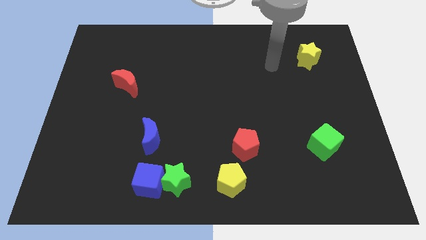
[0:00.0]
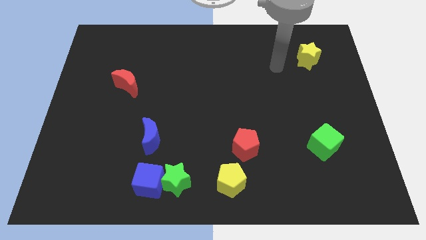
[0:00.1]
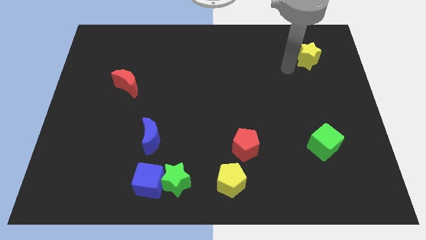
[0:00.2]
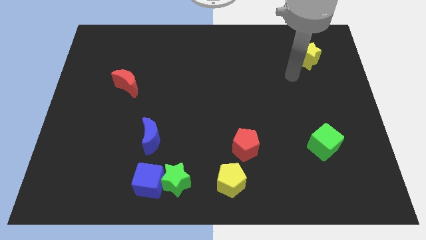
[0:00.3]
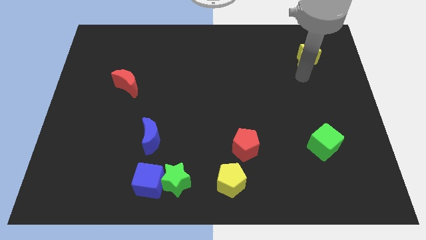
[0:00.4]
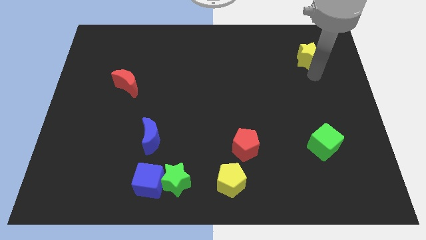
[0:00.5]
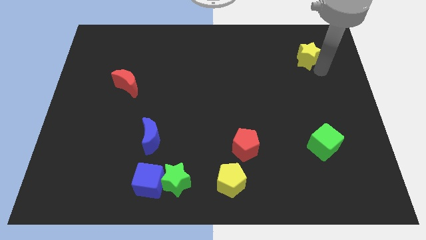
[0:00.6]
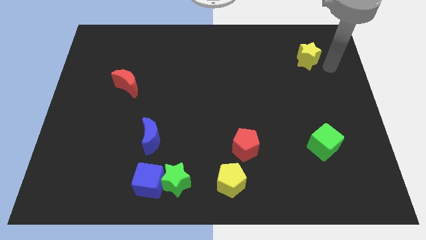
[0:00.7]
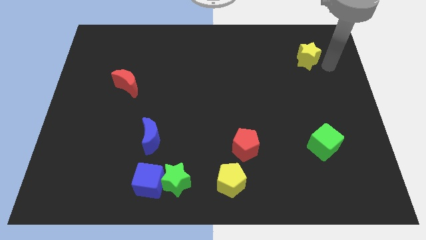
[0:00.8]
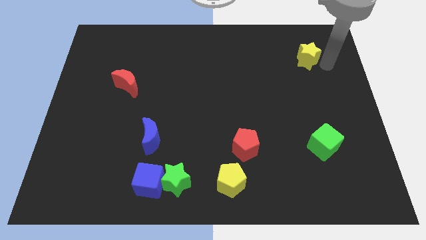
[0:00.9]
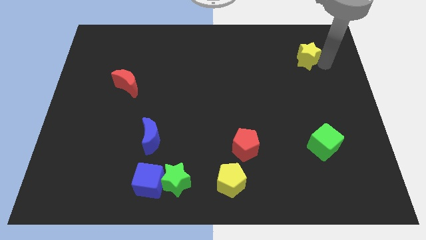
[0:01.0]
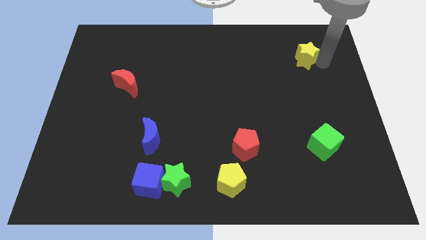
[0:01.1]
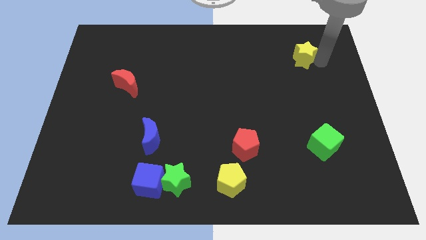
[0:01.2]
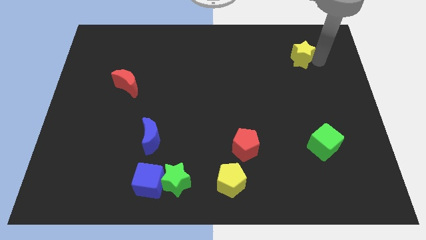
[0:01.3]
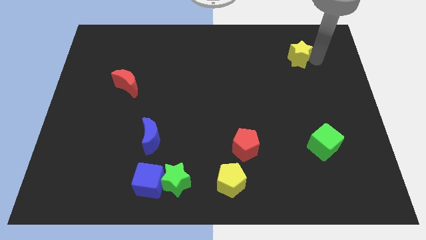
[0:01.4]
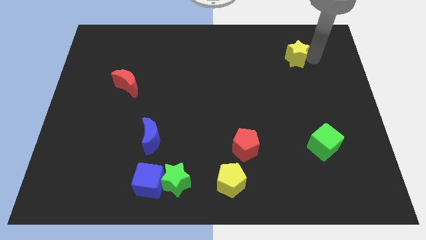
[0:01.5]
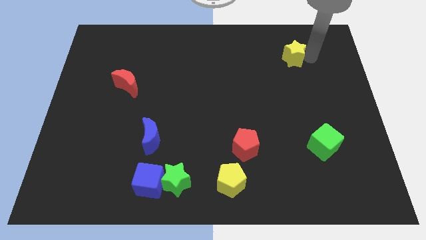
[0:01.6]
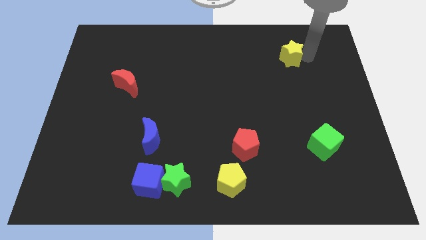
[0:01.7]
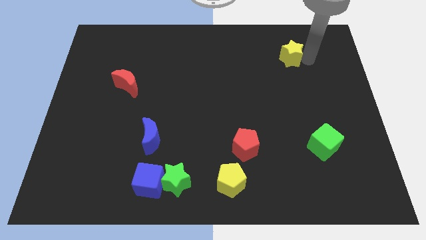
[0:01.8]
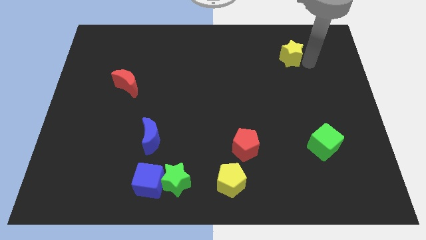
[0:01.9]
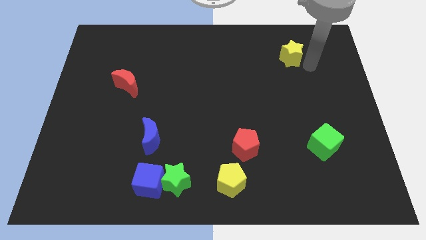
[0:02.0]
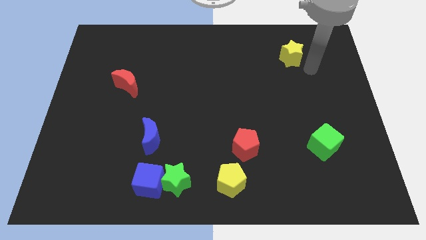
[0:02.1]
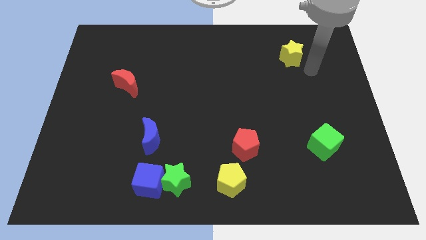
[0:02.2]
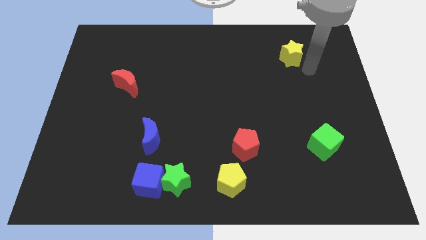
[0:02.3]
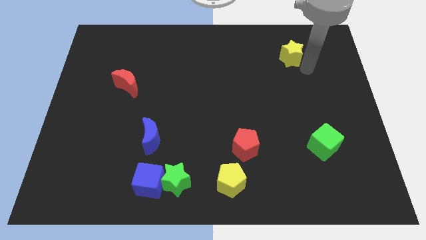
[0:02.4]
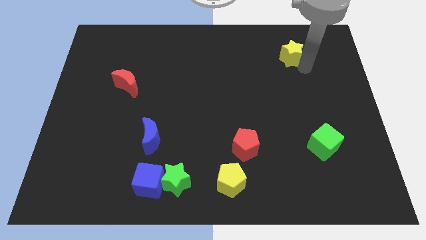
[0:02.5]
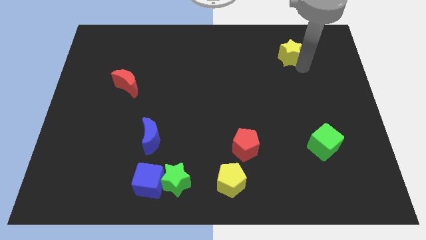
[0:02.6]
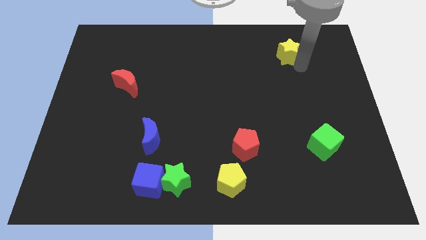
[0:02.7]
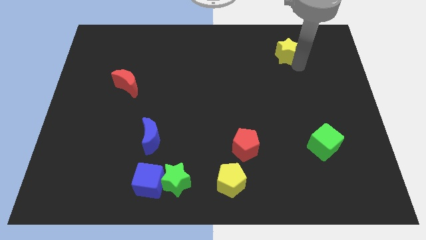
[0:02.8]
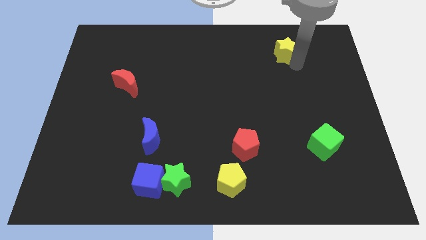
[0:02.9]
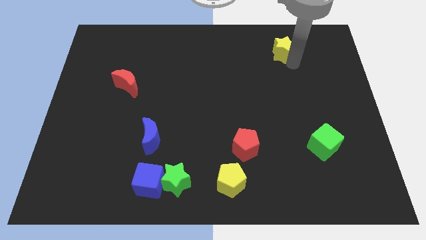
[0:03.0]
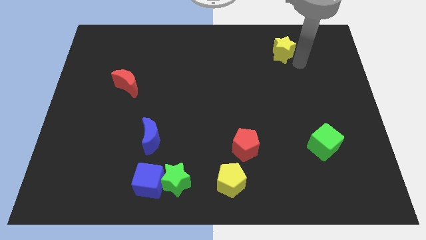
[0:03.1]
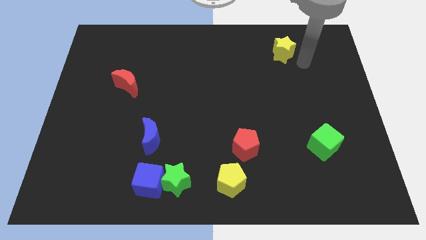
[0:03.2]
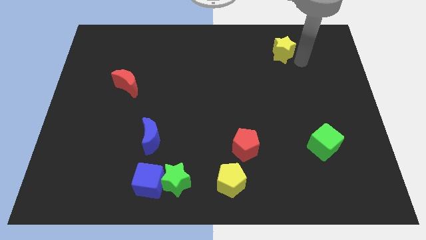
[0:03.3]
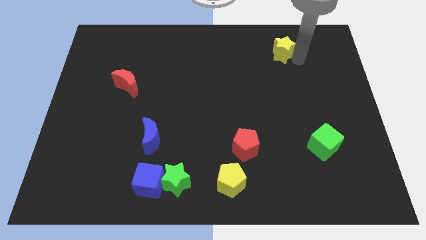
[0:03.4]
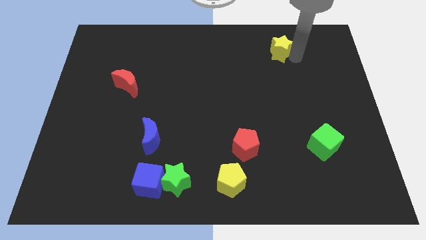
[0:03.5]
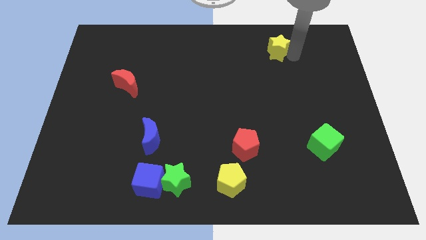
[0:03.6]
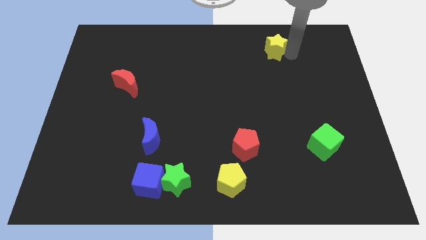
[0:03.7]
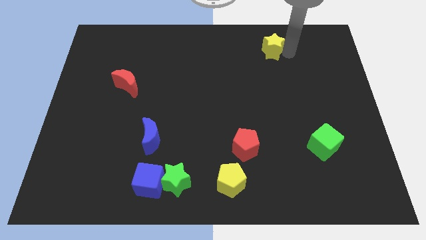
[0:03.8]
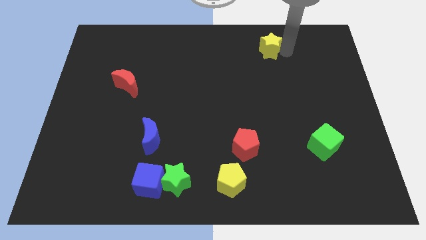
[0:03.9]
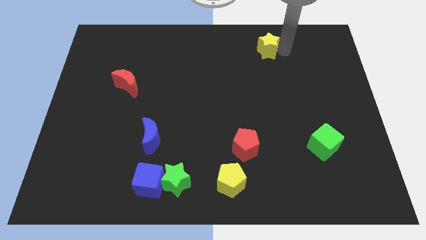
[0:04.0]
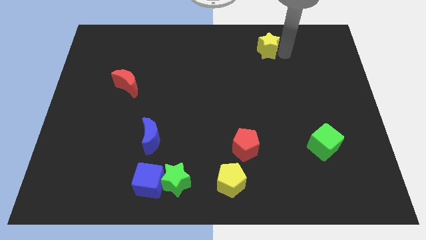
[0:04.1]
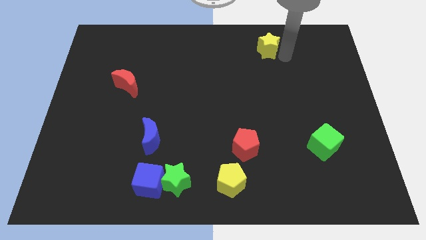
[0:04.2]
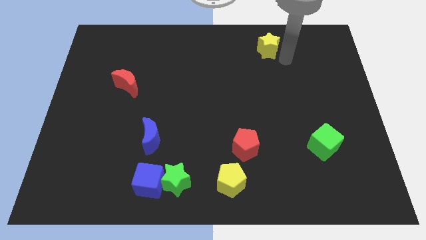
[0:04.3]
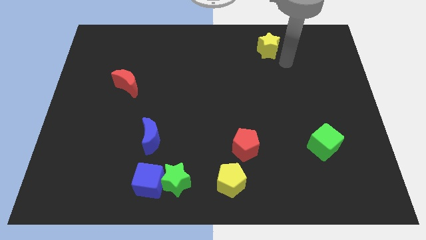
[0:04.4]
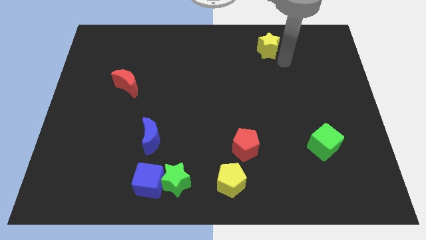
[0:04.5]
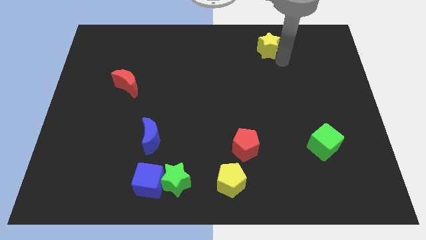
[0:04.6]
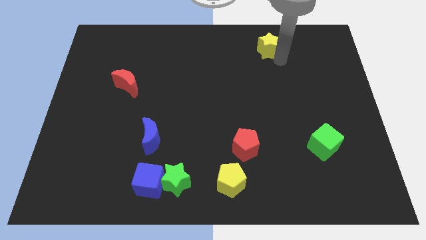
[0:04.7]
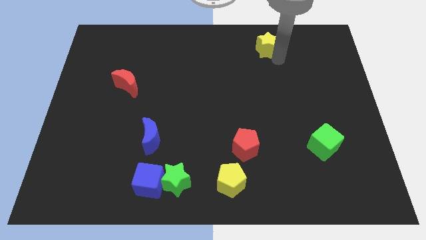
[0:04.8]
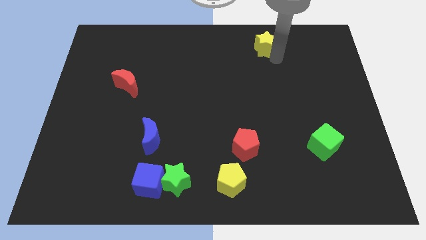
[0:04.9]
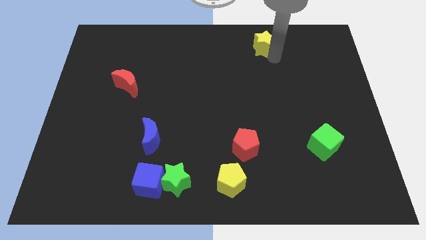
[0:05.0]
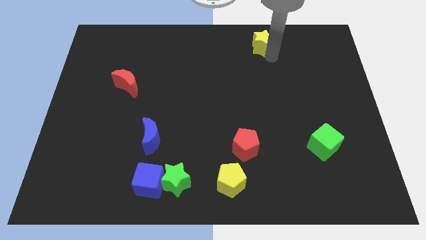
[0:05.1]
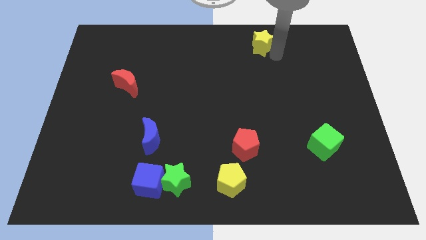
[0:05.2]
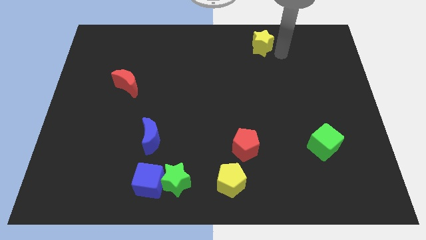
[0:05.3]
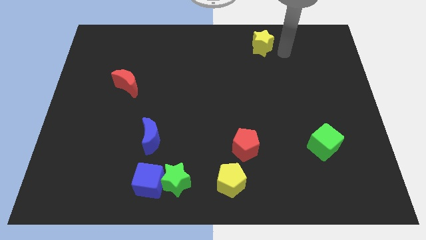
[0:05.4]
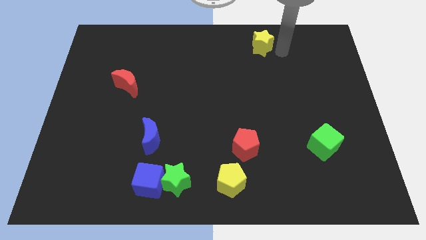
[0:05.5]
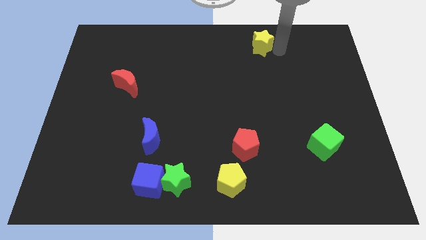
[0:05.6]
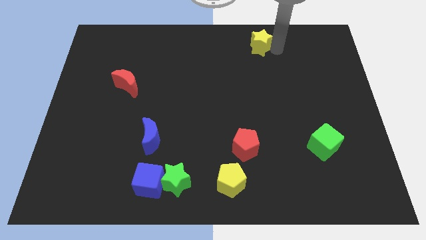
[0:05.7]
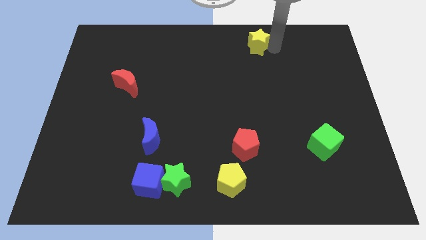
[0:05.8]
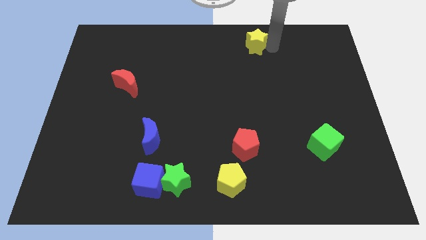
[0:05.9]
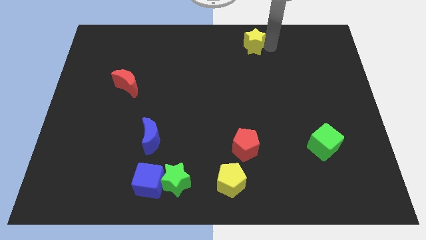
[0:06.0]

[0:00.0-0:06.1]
slide the yellow star to the towards your base

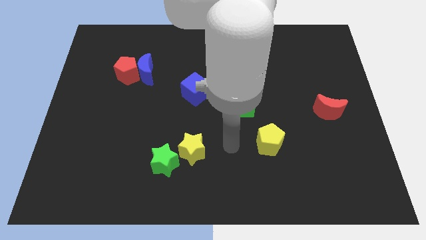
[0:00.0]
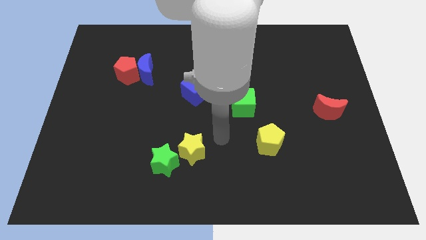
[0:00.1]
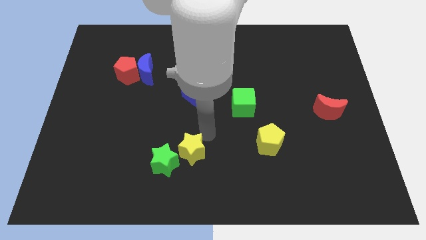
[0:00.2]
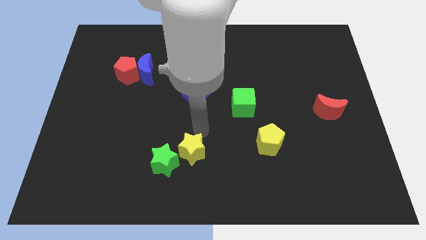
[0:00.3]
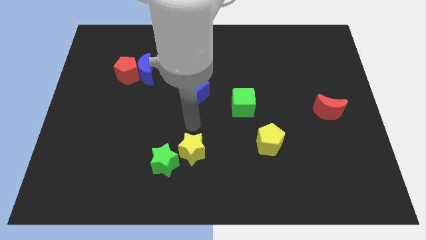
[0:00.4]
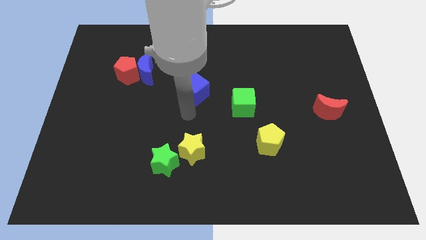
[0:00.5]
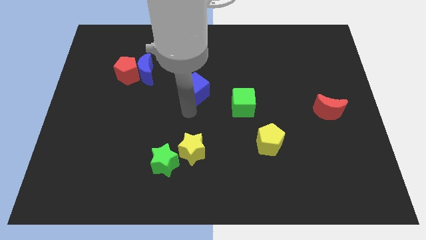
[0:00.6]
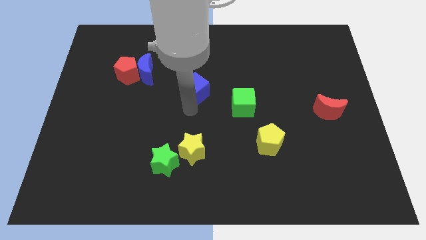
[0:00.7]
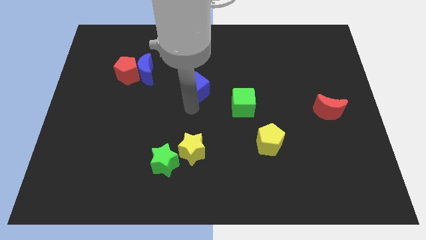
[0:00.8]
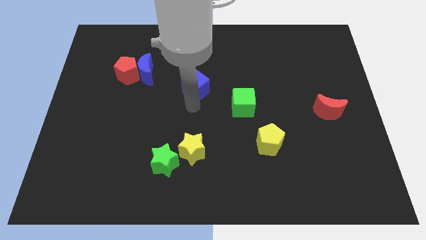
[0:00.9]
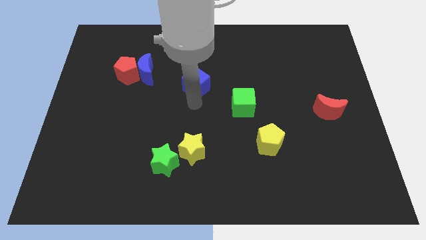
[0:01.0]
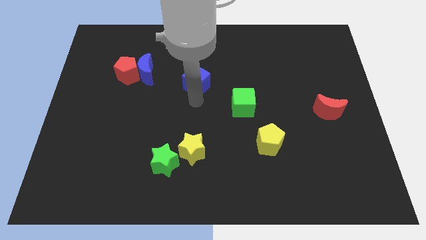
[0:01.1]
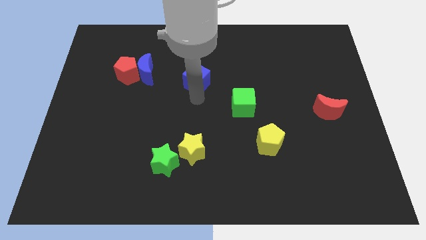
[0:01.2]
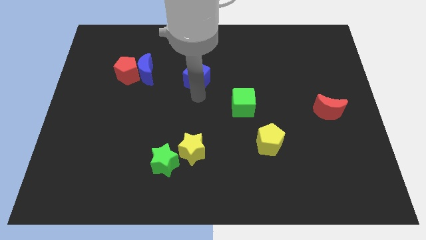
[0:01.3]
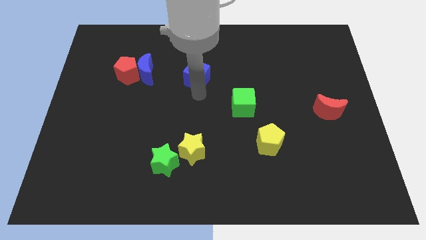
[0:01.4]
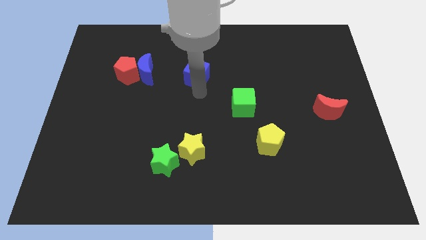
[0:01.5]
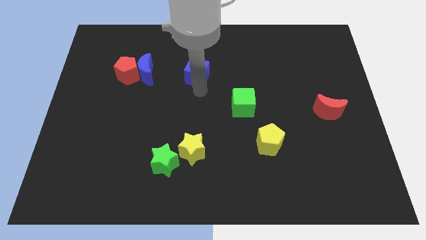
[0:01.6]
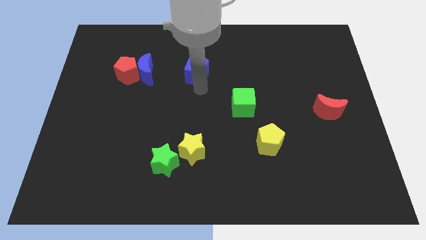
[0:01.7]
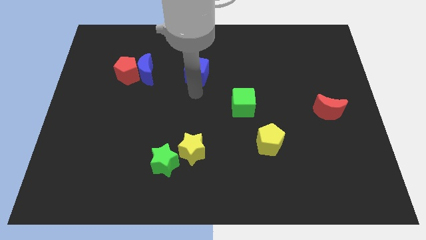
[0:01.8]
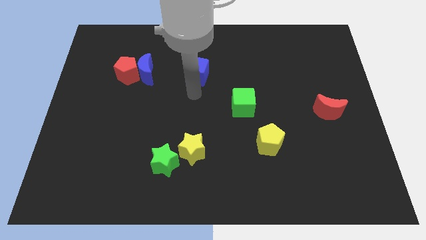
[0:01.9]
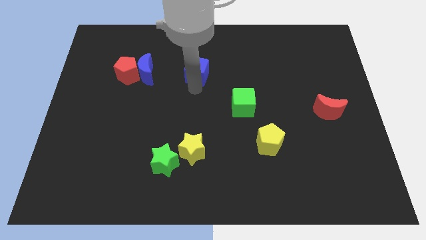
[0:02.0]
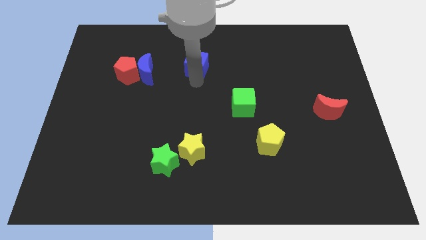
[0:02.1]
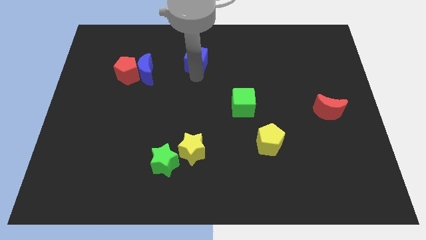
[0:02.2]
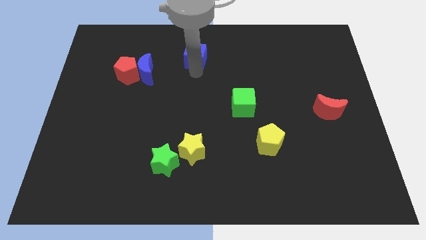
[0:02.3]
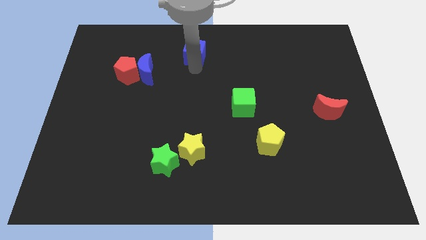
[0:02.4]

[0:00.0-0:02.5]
push the blue cube to the towards your base
